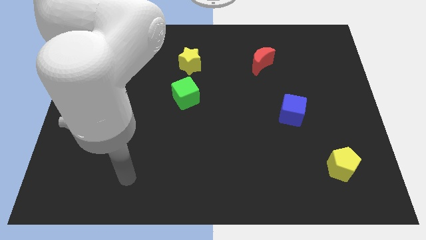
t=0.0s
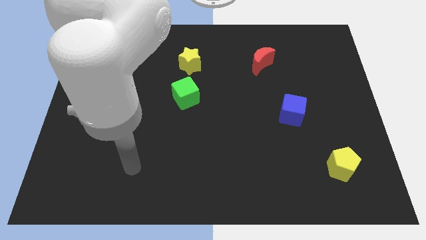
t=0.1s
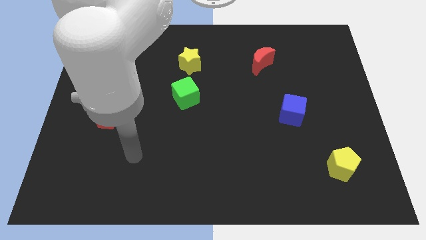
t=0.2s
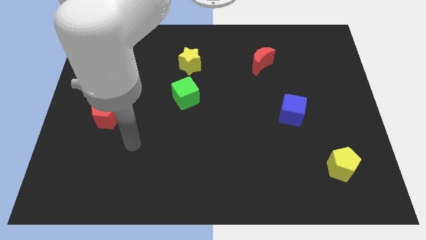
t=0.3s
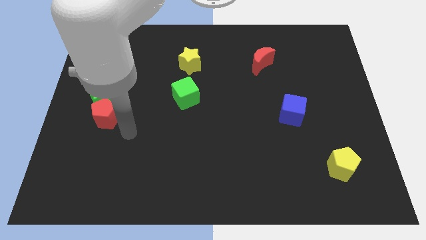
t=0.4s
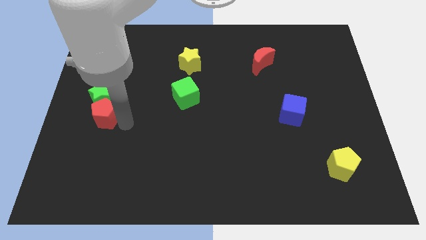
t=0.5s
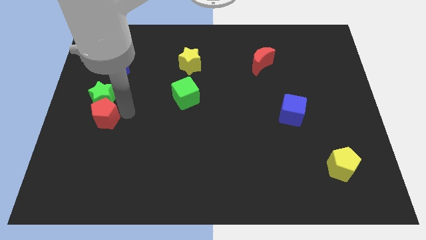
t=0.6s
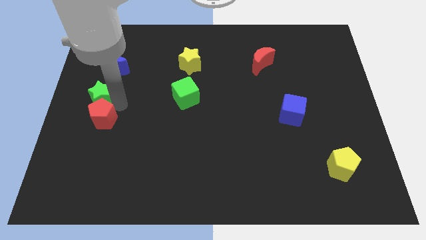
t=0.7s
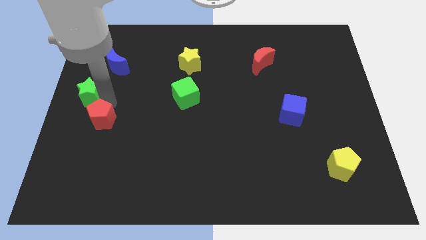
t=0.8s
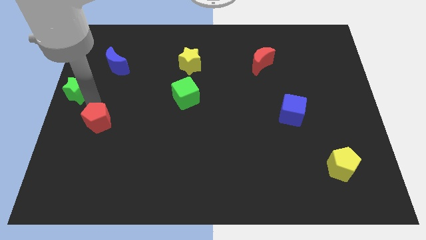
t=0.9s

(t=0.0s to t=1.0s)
pull the red pentagon apart from the green star

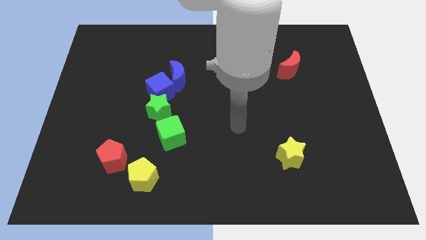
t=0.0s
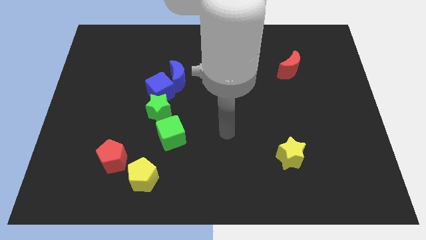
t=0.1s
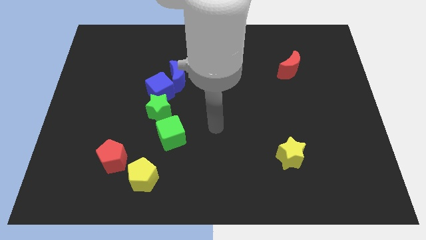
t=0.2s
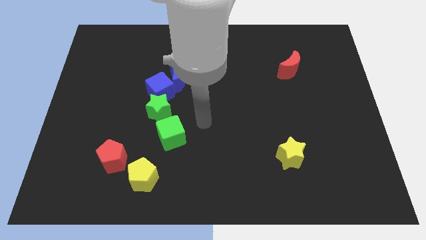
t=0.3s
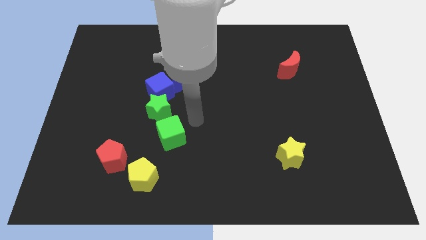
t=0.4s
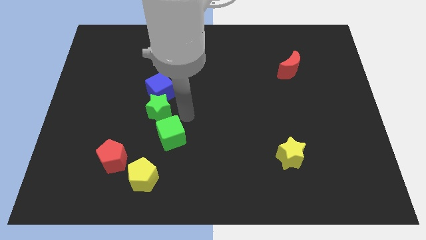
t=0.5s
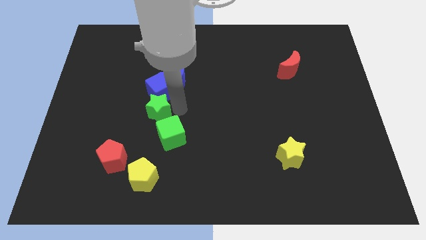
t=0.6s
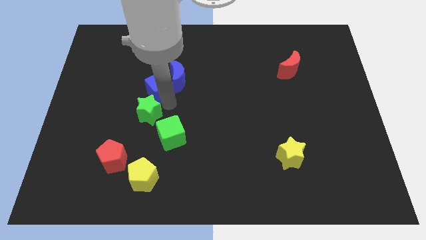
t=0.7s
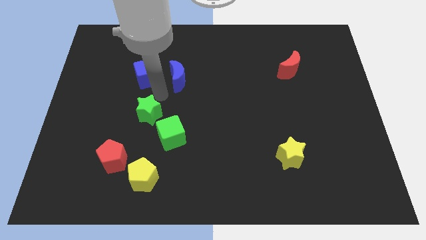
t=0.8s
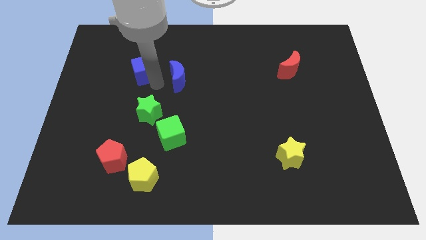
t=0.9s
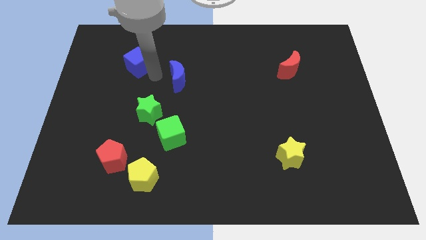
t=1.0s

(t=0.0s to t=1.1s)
pull the blue moon apart from the blue cube

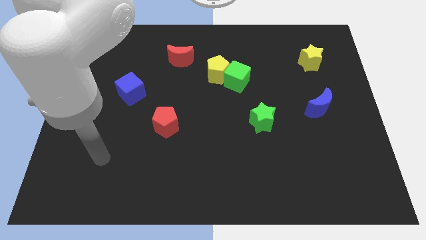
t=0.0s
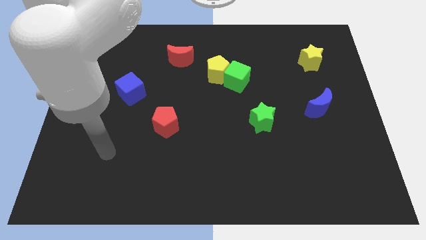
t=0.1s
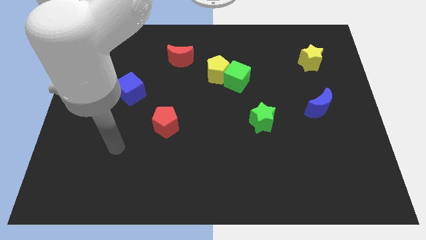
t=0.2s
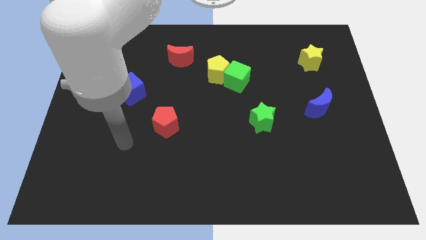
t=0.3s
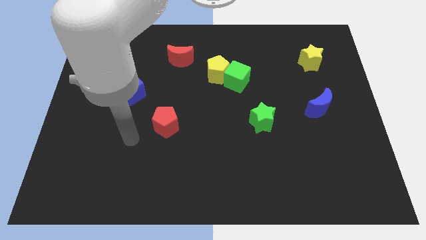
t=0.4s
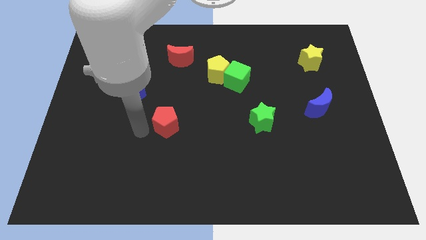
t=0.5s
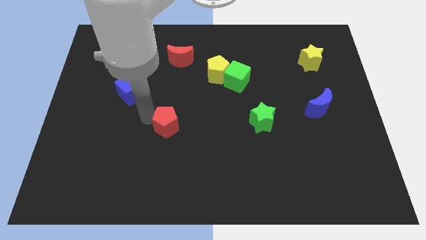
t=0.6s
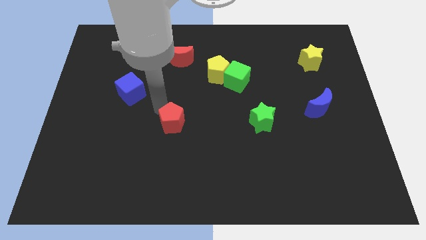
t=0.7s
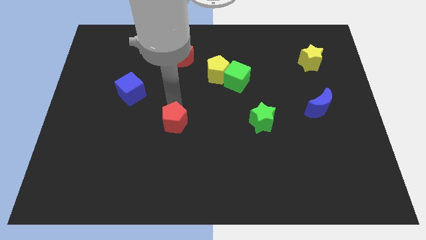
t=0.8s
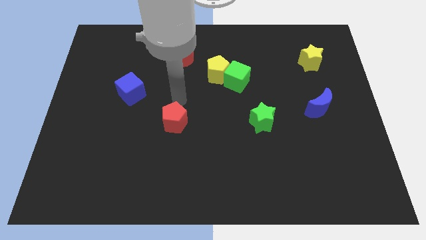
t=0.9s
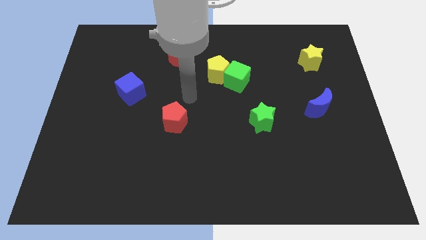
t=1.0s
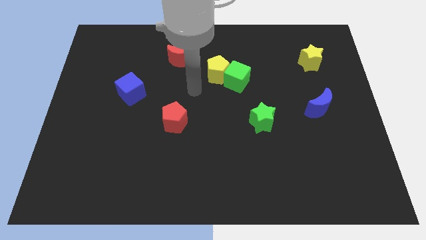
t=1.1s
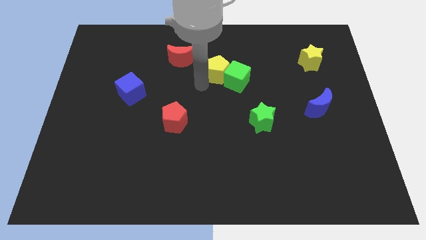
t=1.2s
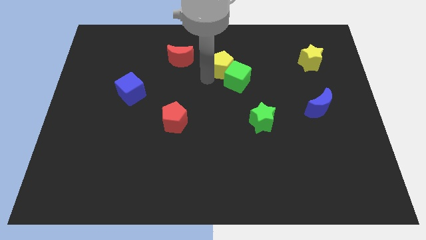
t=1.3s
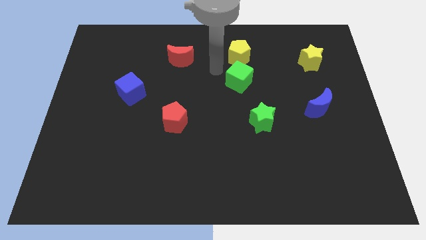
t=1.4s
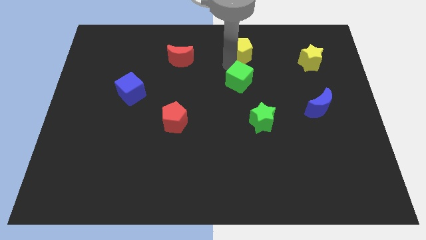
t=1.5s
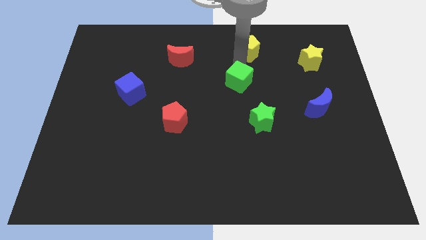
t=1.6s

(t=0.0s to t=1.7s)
pull the green cube apart from the yellow pentagon

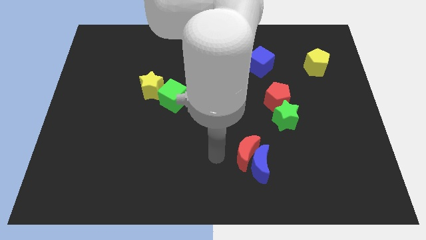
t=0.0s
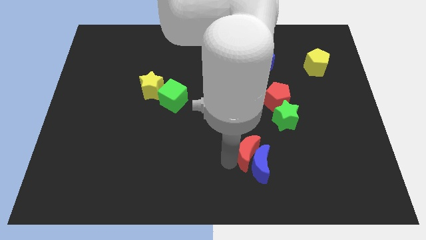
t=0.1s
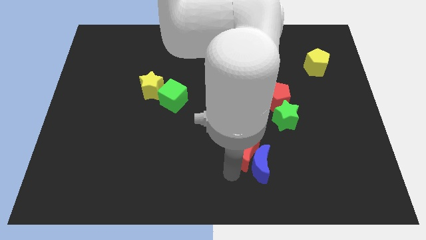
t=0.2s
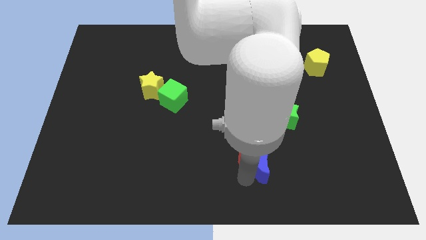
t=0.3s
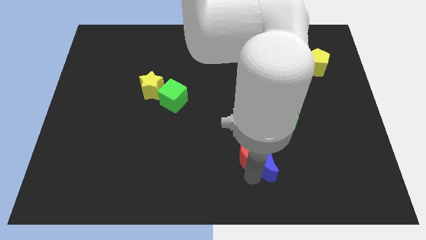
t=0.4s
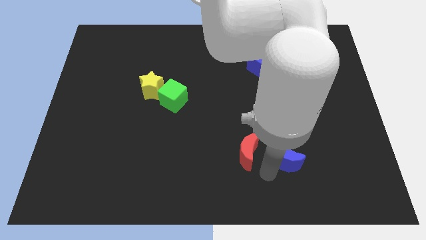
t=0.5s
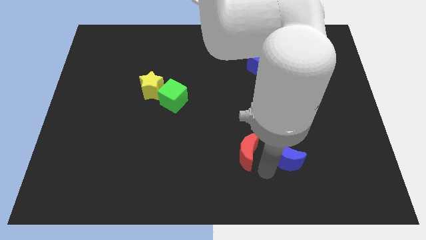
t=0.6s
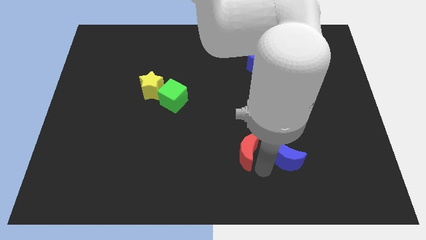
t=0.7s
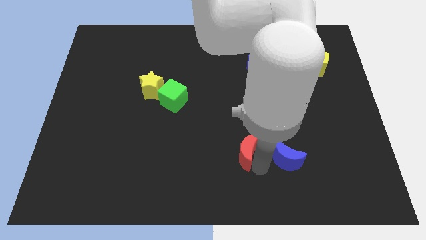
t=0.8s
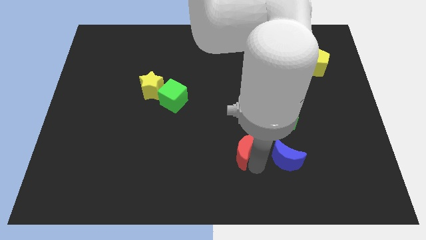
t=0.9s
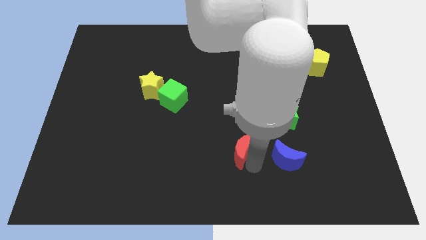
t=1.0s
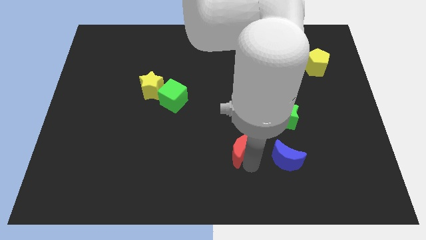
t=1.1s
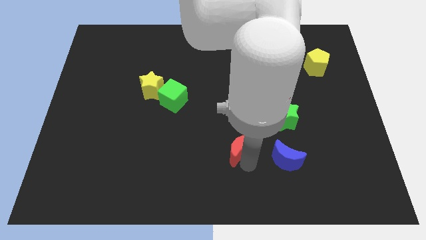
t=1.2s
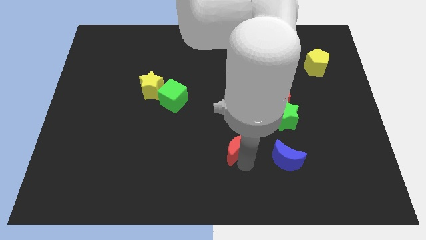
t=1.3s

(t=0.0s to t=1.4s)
separate the red moon from the blue moon

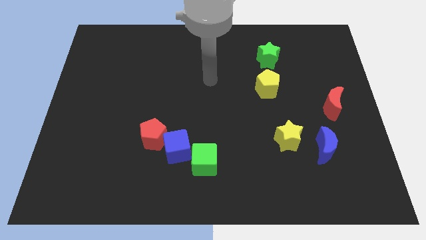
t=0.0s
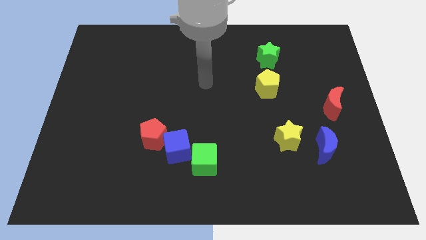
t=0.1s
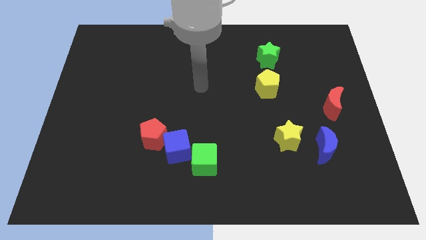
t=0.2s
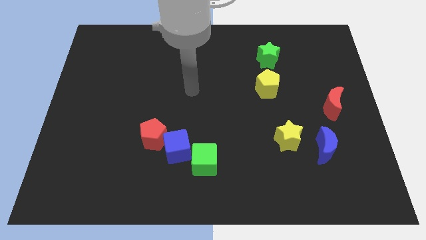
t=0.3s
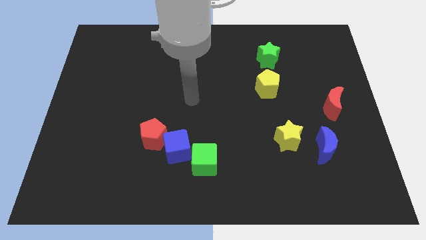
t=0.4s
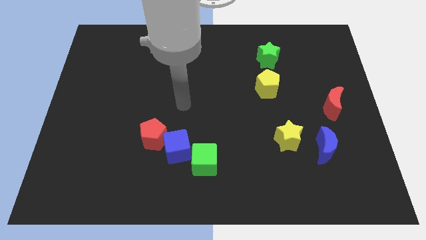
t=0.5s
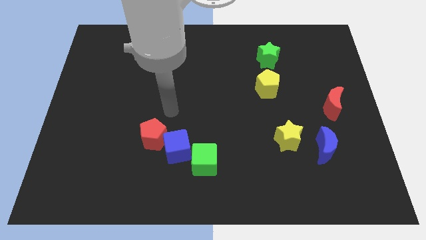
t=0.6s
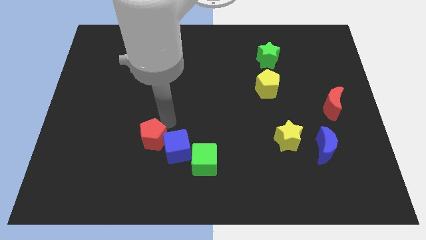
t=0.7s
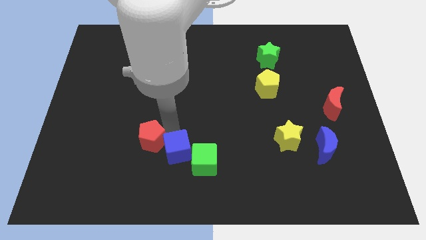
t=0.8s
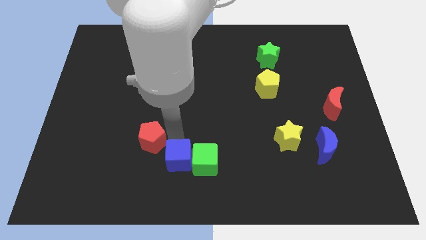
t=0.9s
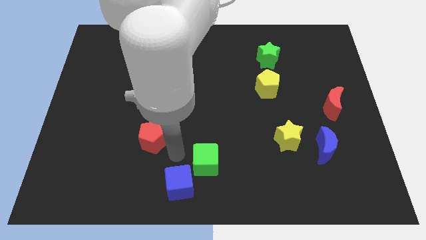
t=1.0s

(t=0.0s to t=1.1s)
separate the red pentagon from the blue cube

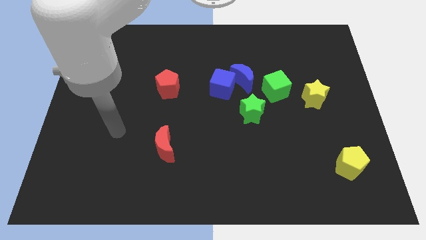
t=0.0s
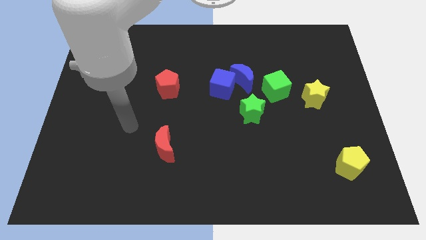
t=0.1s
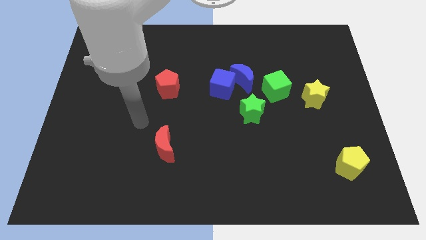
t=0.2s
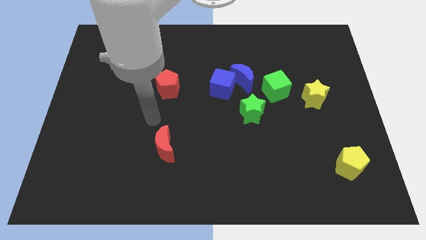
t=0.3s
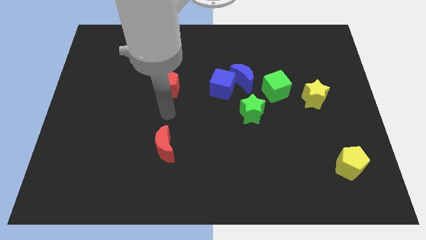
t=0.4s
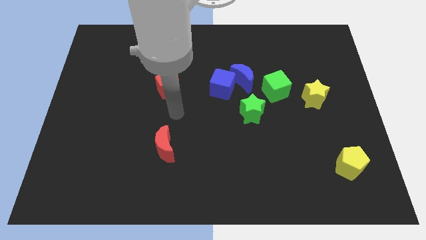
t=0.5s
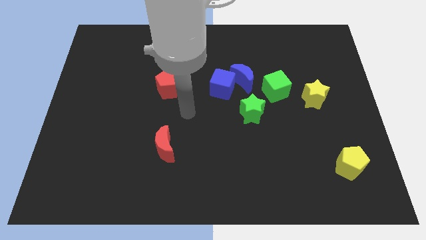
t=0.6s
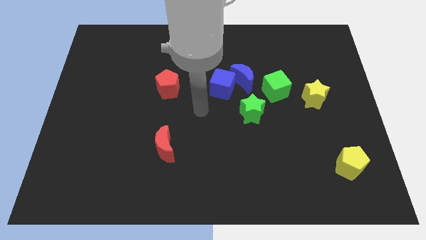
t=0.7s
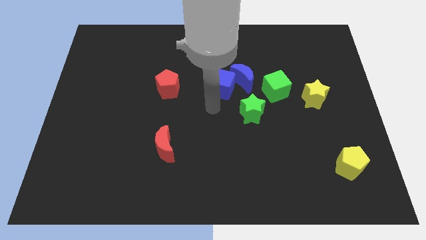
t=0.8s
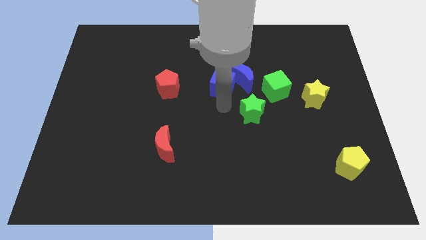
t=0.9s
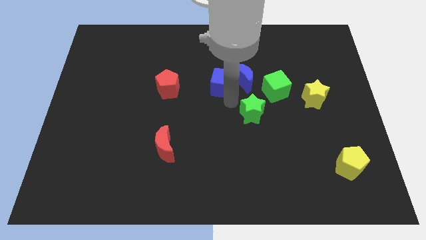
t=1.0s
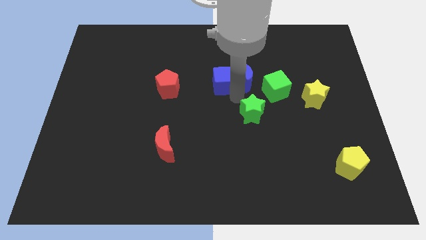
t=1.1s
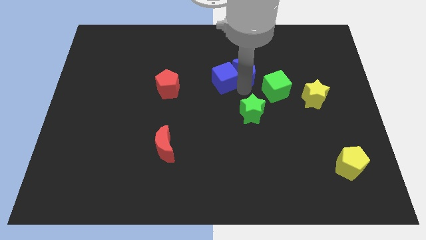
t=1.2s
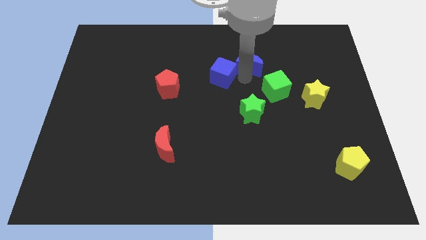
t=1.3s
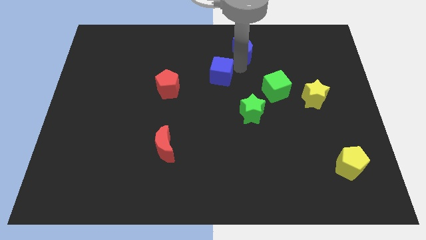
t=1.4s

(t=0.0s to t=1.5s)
separate the blue cube from the blue moon

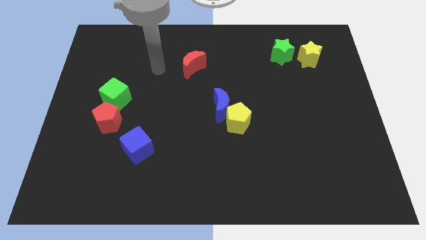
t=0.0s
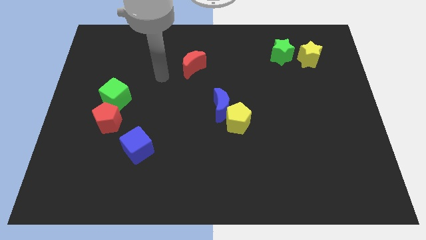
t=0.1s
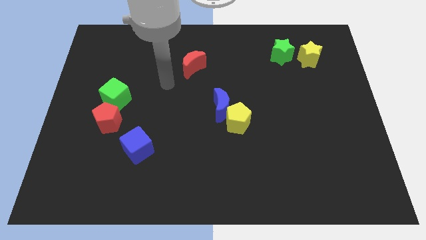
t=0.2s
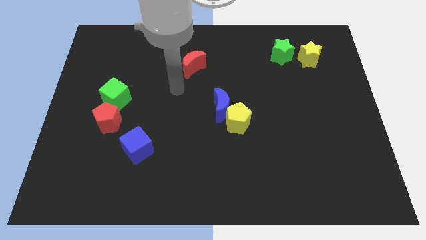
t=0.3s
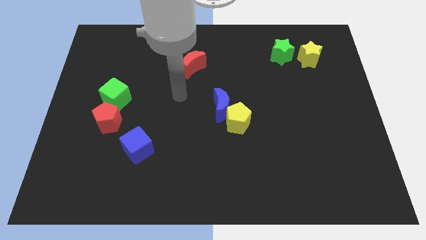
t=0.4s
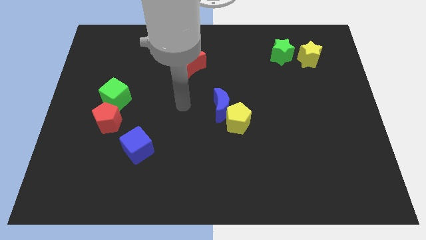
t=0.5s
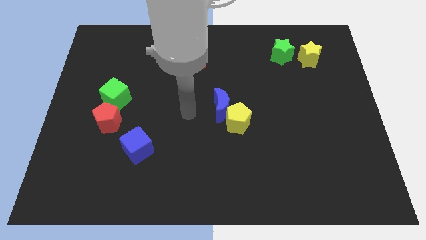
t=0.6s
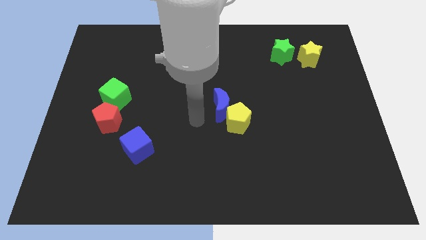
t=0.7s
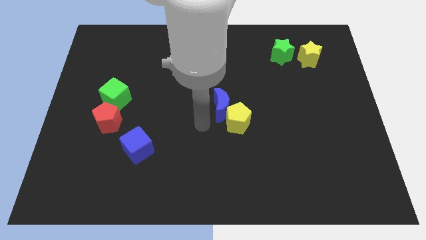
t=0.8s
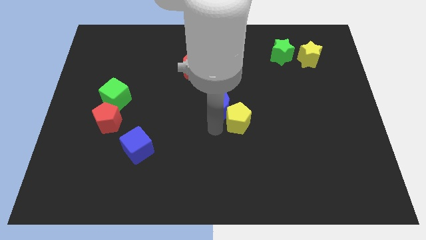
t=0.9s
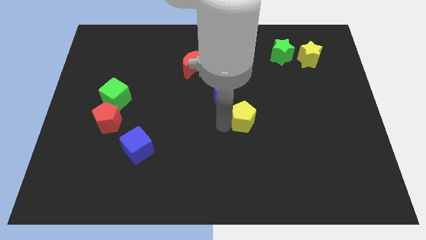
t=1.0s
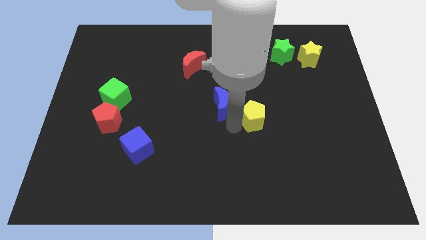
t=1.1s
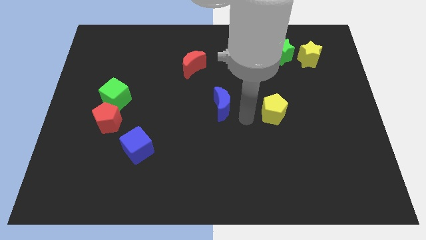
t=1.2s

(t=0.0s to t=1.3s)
move the blue moon away from the yellow pentagon
